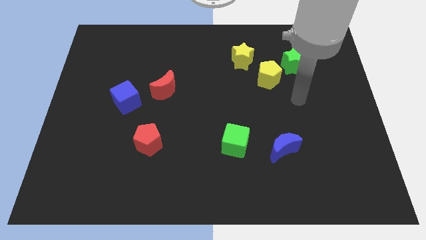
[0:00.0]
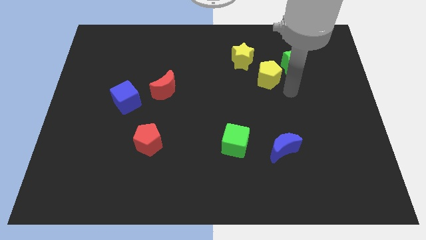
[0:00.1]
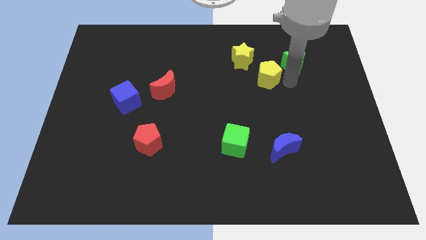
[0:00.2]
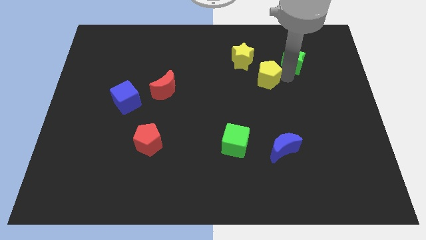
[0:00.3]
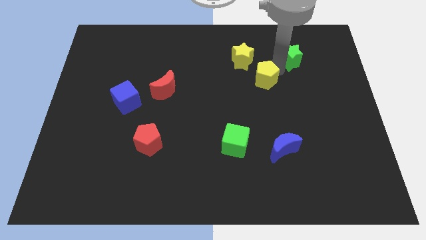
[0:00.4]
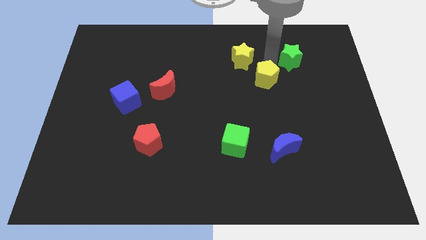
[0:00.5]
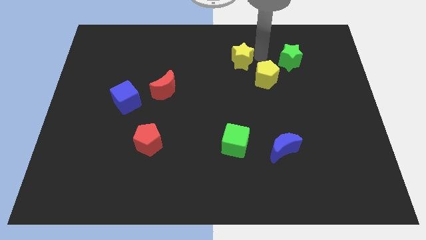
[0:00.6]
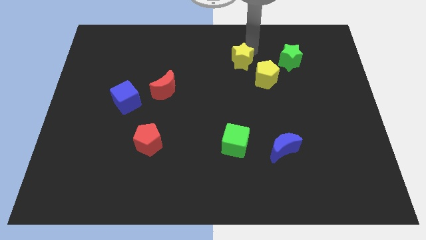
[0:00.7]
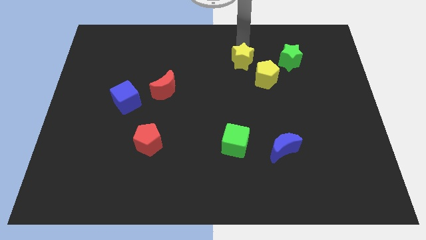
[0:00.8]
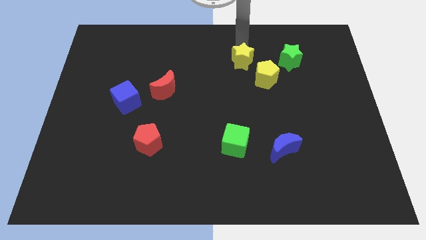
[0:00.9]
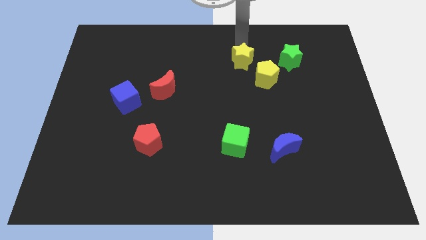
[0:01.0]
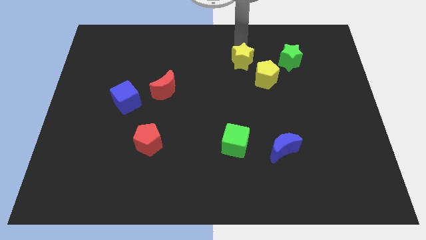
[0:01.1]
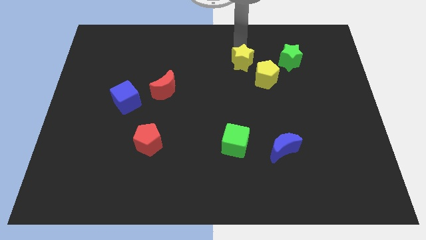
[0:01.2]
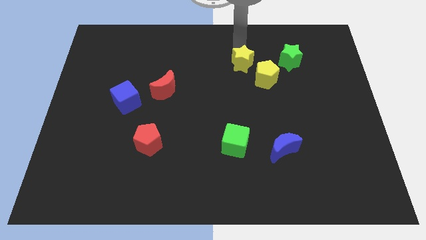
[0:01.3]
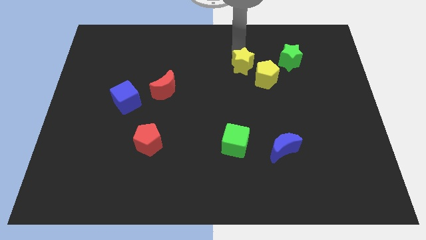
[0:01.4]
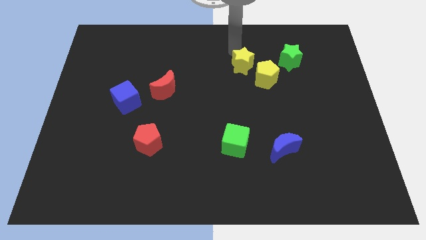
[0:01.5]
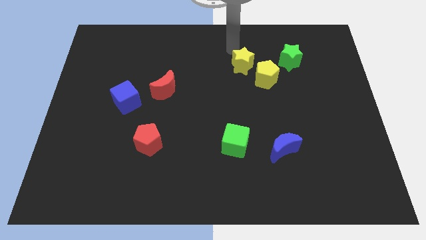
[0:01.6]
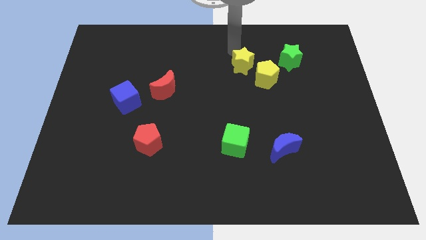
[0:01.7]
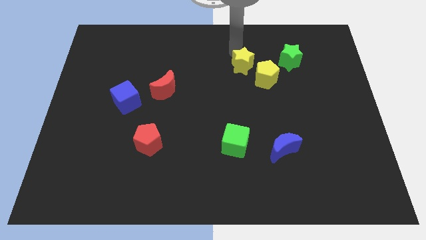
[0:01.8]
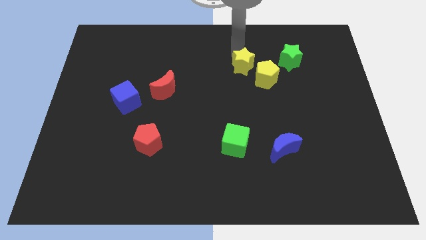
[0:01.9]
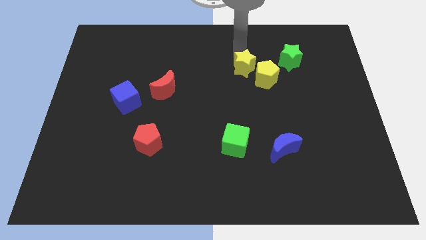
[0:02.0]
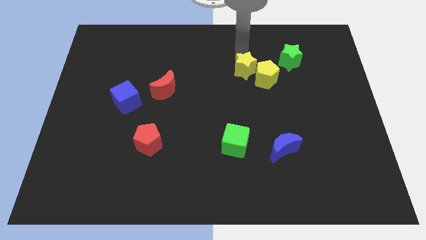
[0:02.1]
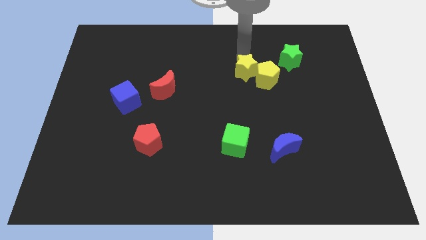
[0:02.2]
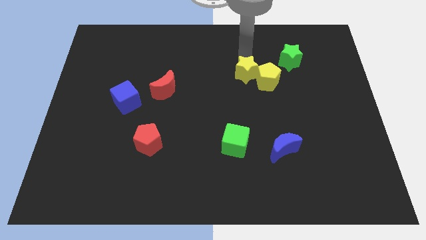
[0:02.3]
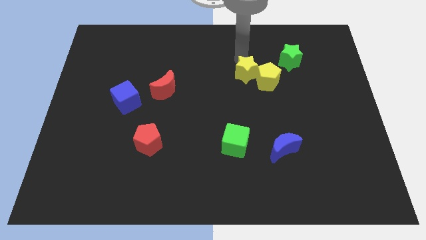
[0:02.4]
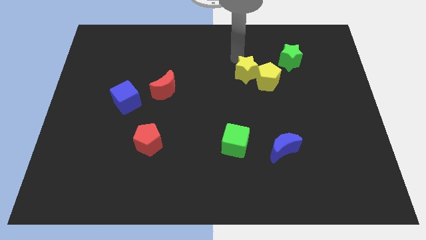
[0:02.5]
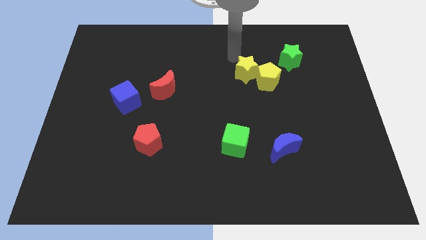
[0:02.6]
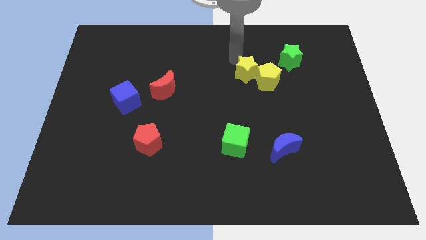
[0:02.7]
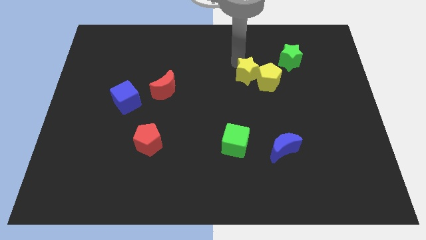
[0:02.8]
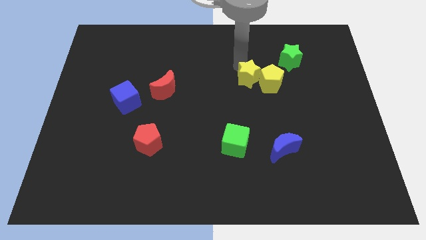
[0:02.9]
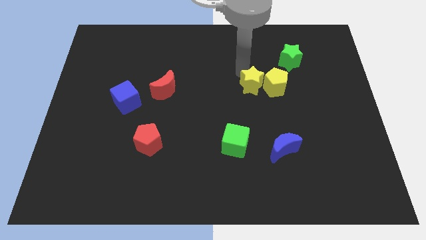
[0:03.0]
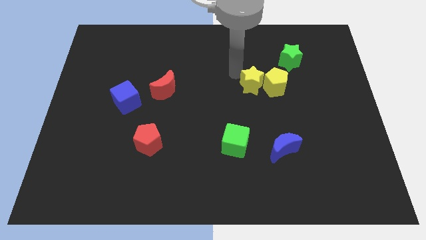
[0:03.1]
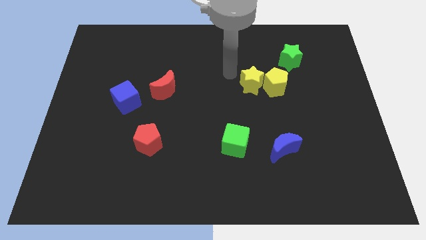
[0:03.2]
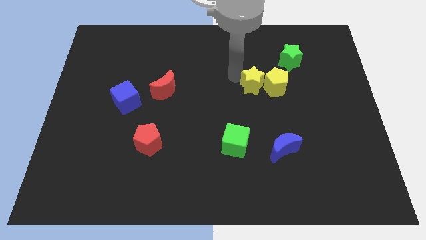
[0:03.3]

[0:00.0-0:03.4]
slide the yellow star a little bit down and to the right

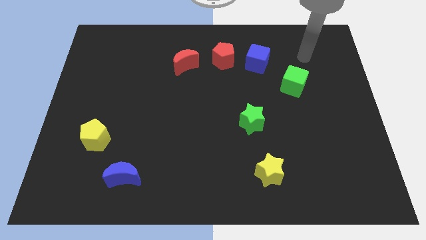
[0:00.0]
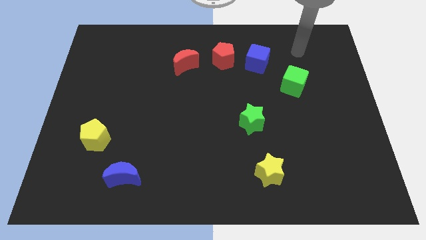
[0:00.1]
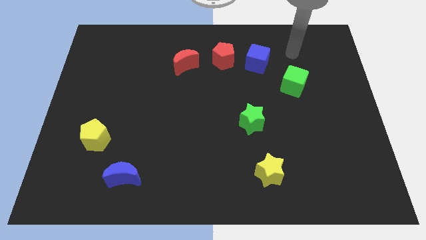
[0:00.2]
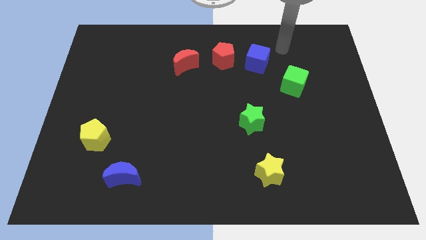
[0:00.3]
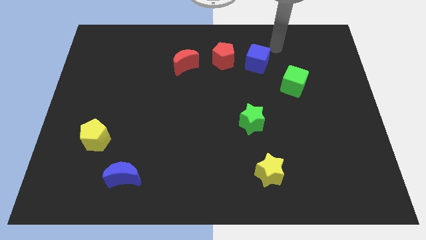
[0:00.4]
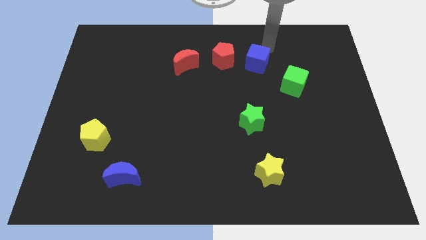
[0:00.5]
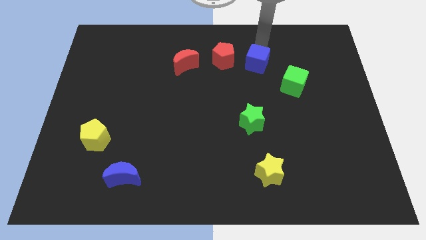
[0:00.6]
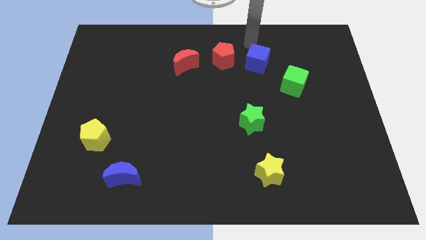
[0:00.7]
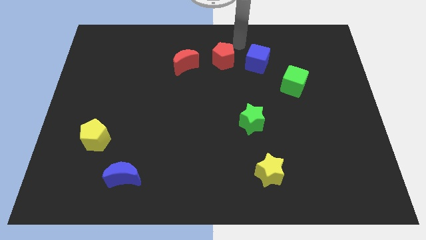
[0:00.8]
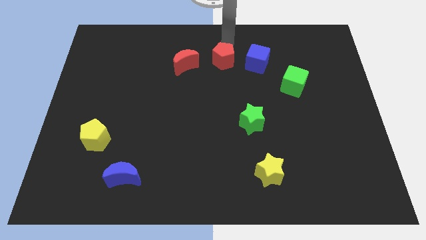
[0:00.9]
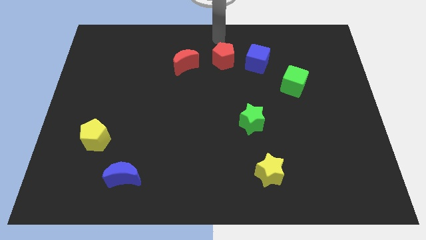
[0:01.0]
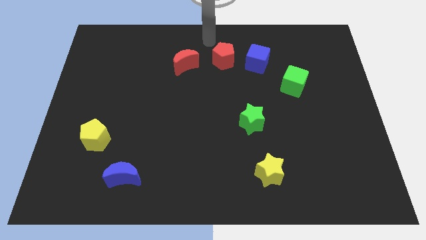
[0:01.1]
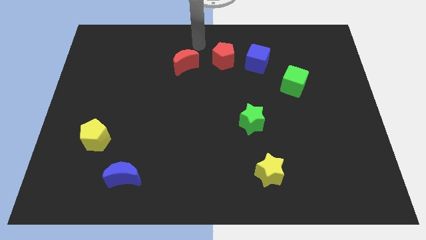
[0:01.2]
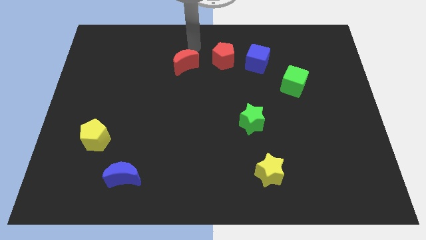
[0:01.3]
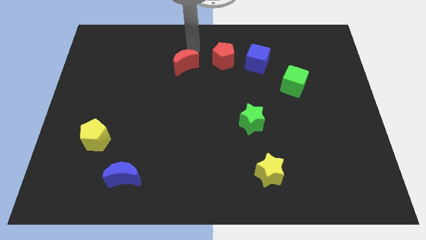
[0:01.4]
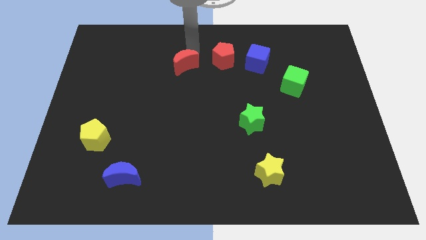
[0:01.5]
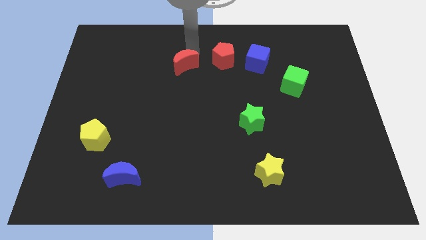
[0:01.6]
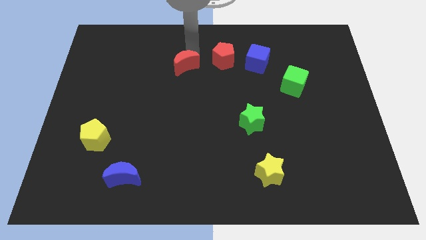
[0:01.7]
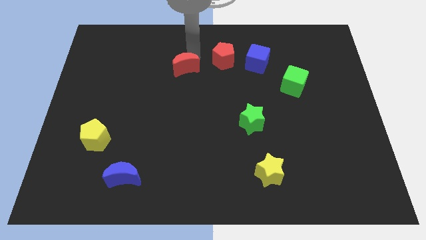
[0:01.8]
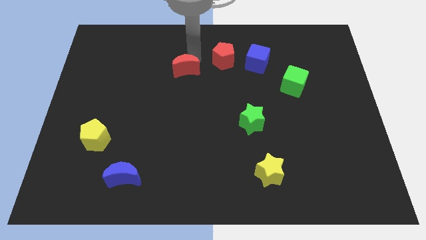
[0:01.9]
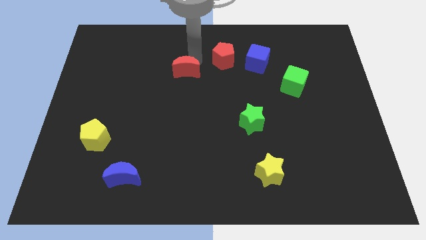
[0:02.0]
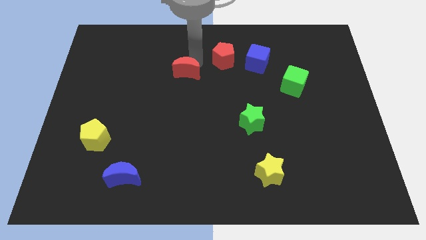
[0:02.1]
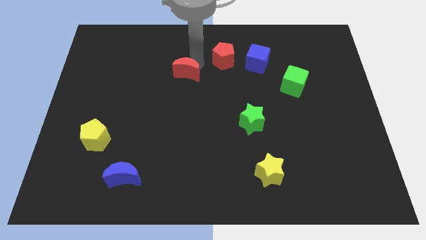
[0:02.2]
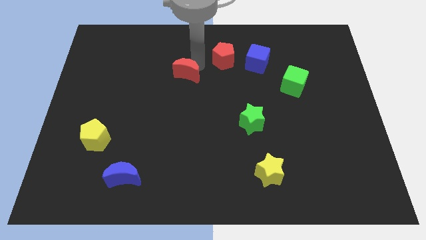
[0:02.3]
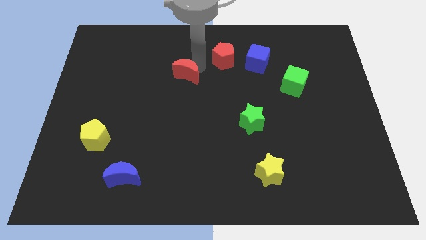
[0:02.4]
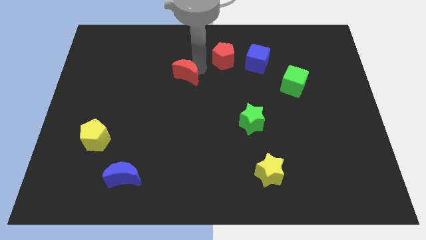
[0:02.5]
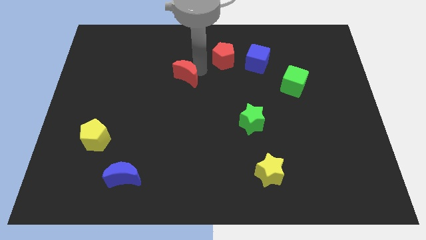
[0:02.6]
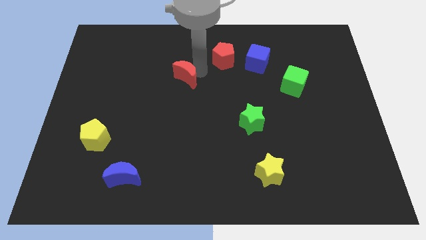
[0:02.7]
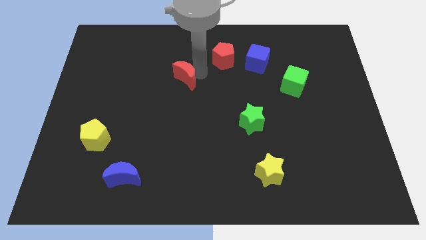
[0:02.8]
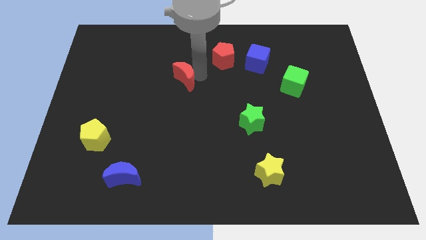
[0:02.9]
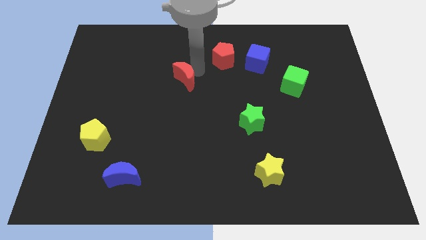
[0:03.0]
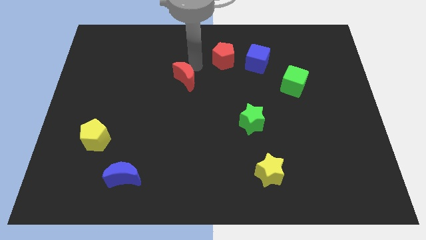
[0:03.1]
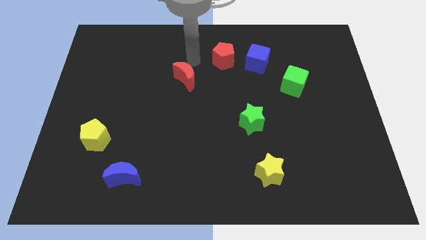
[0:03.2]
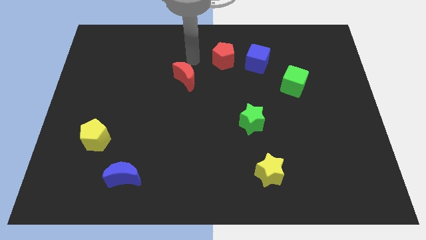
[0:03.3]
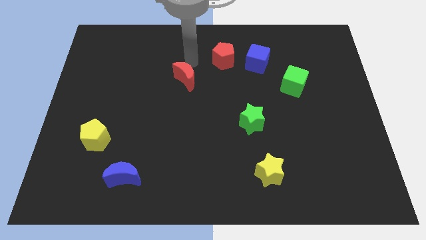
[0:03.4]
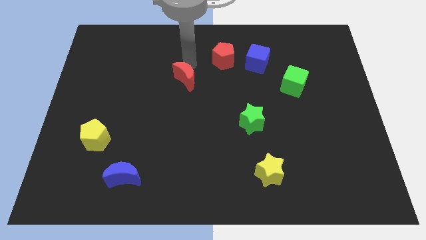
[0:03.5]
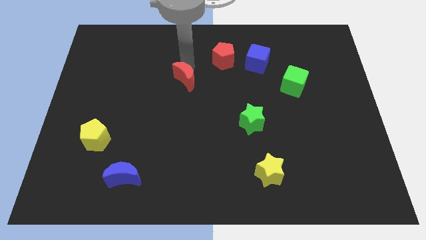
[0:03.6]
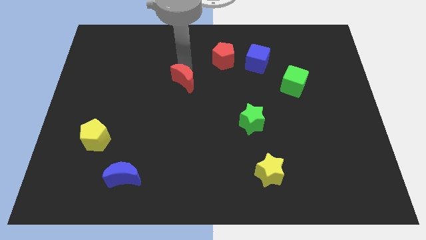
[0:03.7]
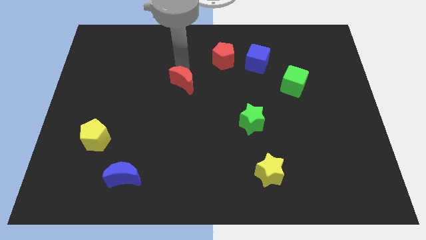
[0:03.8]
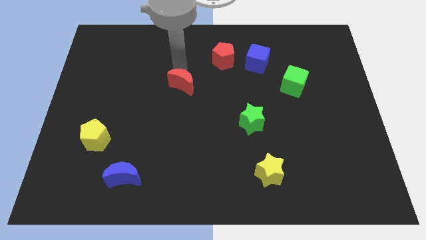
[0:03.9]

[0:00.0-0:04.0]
push the red moon downwards a little

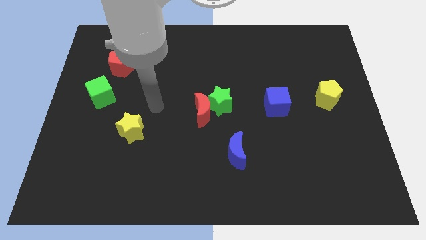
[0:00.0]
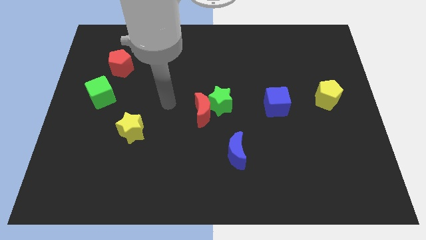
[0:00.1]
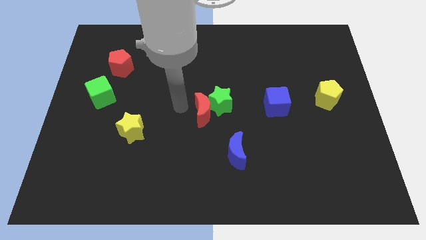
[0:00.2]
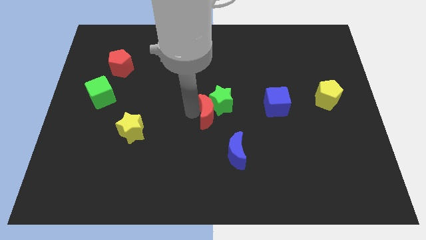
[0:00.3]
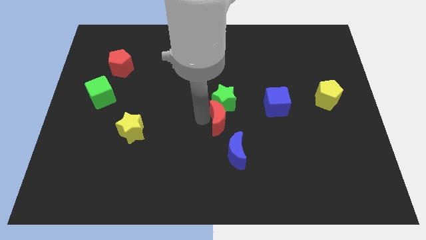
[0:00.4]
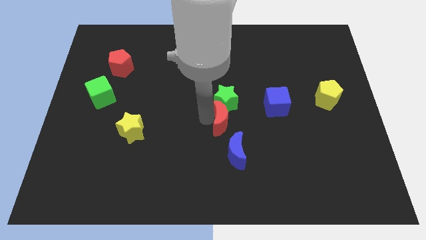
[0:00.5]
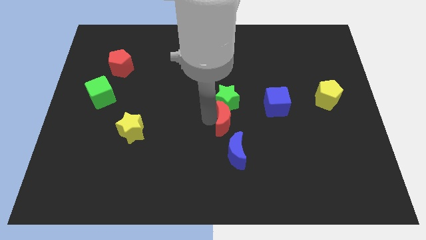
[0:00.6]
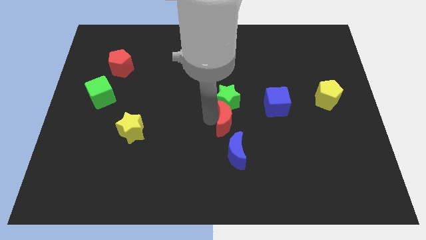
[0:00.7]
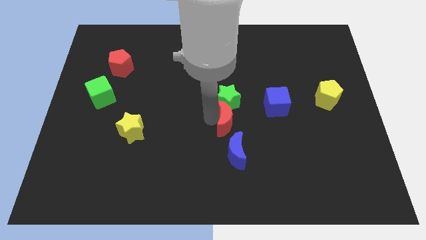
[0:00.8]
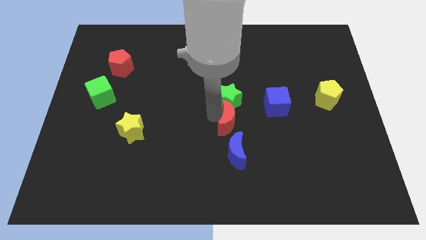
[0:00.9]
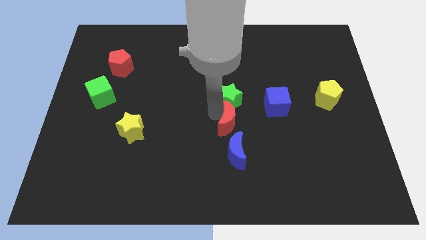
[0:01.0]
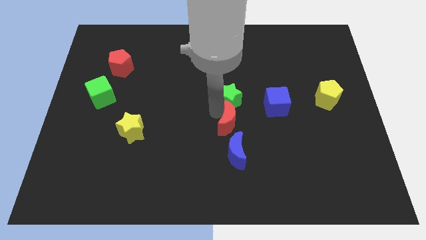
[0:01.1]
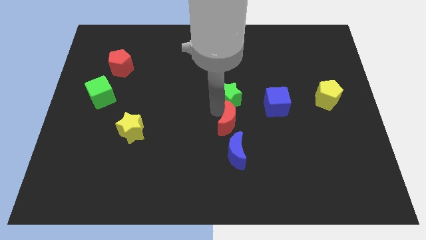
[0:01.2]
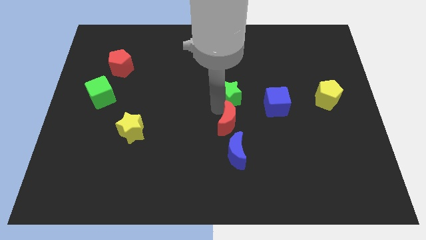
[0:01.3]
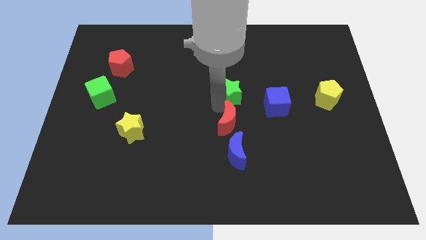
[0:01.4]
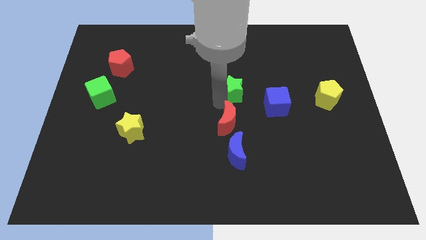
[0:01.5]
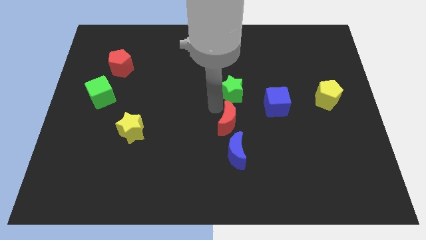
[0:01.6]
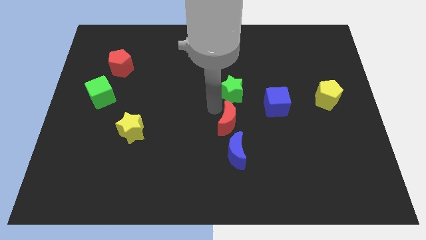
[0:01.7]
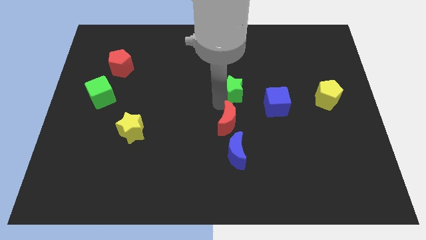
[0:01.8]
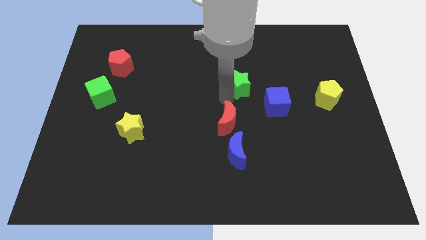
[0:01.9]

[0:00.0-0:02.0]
slide the green star a bit diagonally upwards and right
